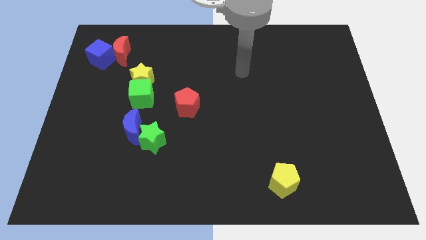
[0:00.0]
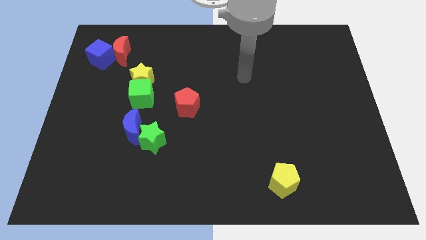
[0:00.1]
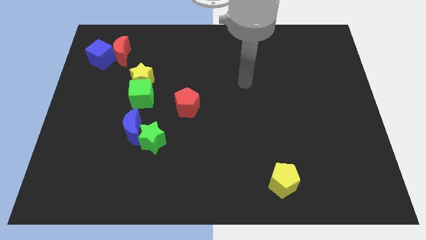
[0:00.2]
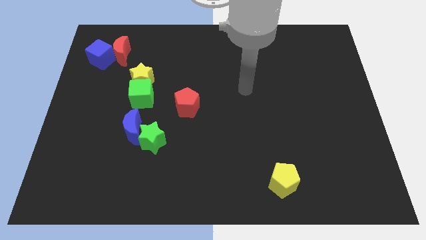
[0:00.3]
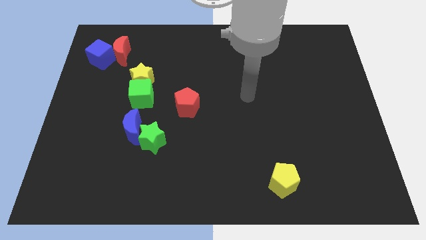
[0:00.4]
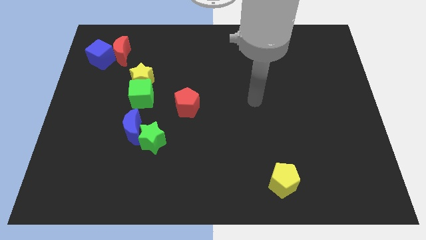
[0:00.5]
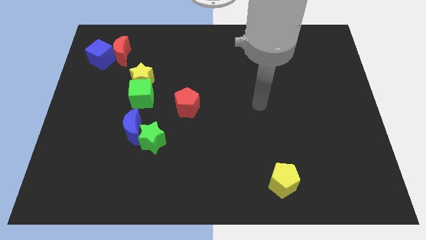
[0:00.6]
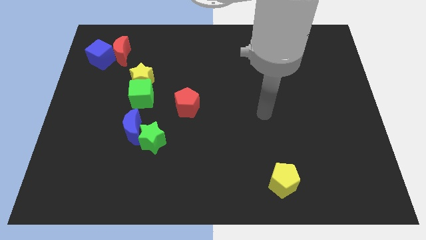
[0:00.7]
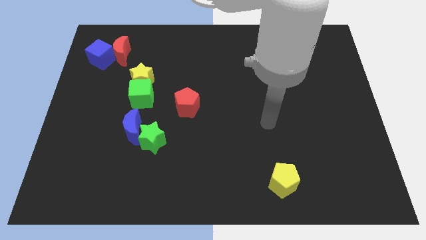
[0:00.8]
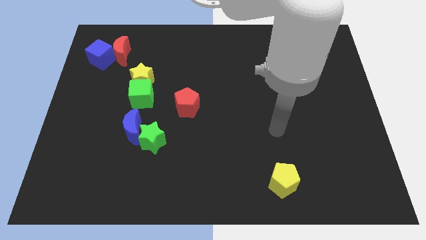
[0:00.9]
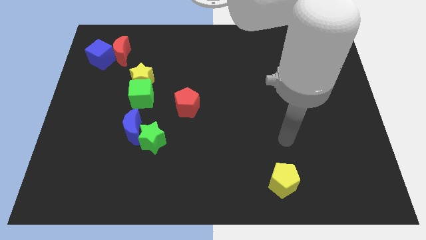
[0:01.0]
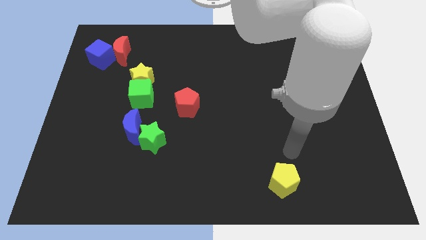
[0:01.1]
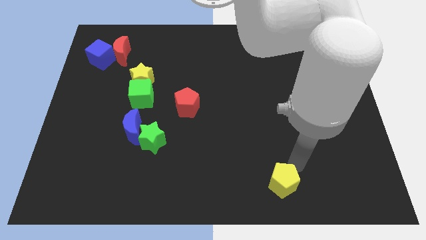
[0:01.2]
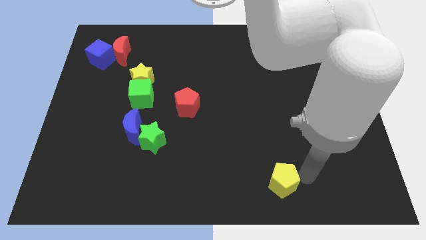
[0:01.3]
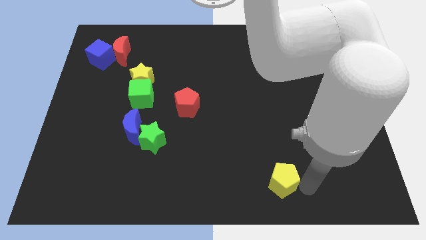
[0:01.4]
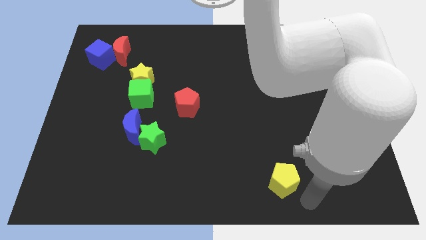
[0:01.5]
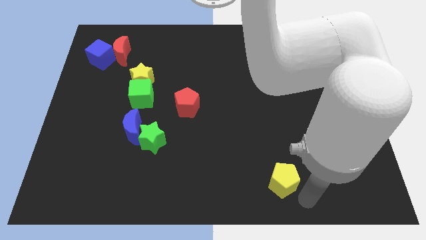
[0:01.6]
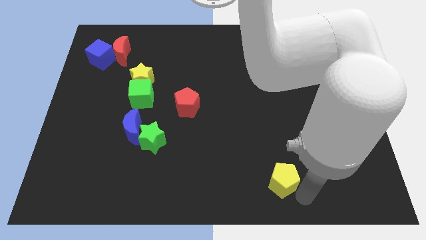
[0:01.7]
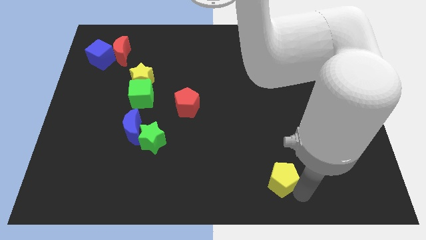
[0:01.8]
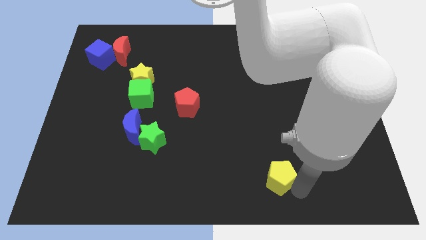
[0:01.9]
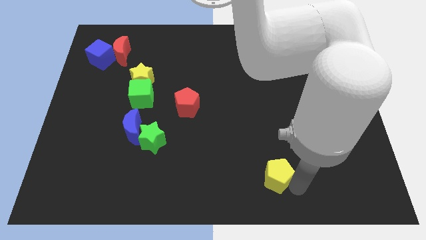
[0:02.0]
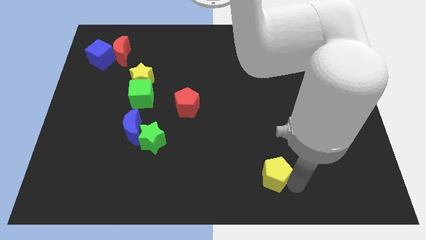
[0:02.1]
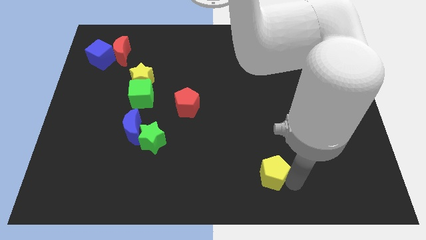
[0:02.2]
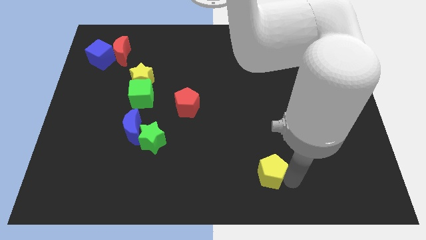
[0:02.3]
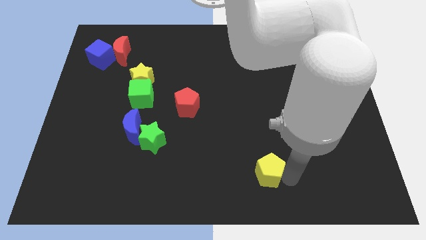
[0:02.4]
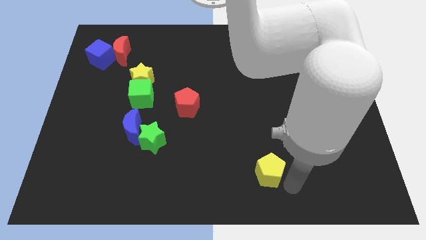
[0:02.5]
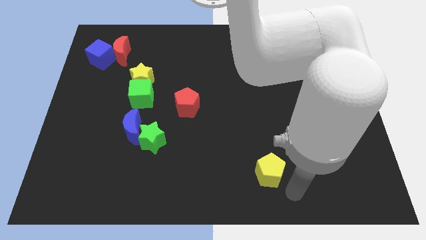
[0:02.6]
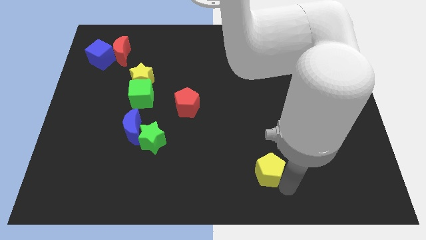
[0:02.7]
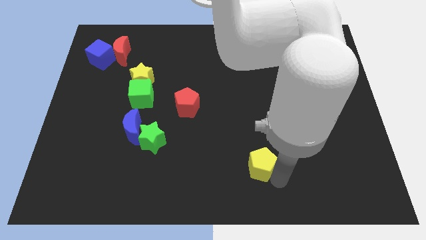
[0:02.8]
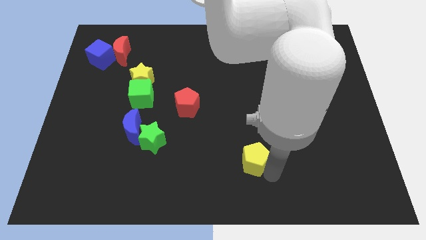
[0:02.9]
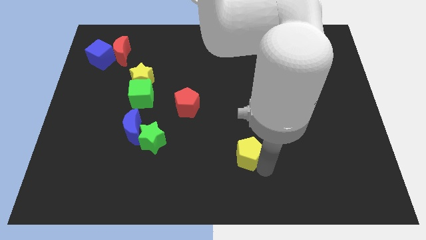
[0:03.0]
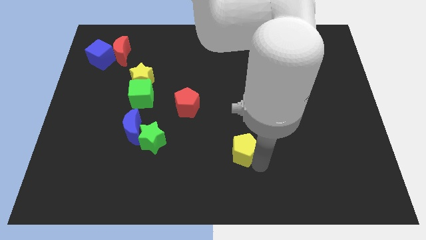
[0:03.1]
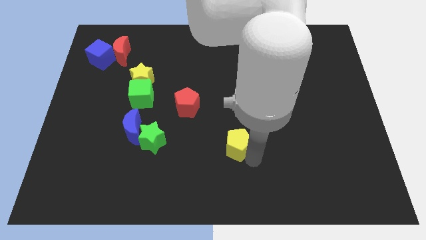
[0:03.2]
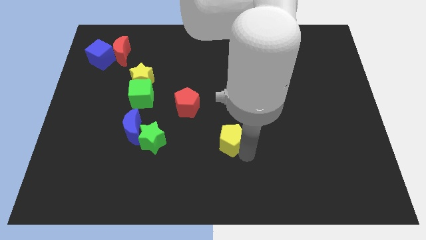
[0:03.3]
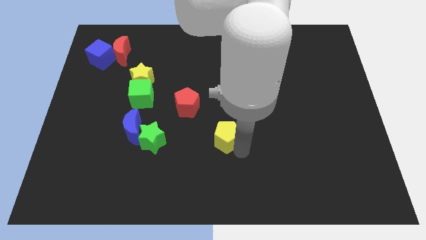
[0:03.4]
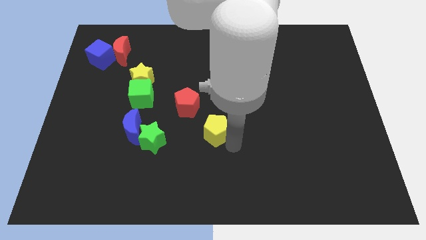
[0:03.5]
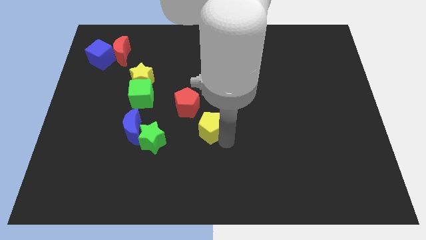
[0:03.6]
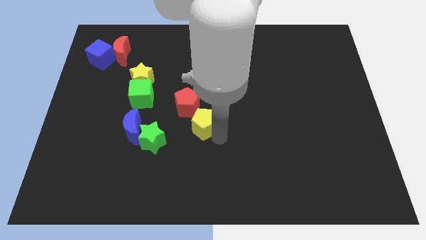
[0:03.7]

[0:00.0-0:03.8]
push the yellow pentagon upwards and to the left

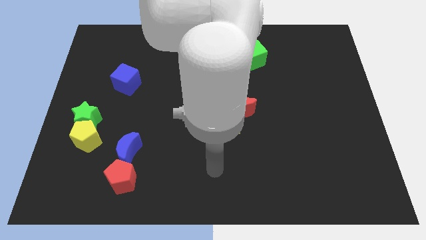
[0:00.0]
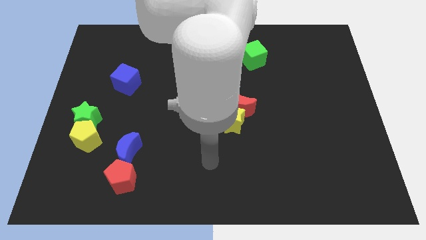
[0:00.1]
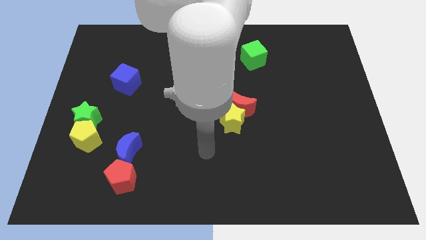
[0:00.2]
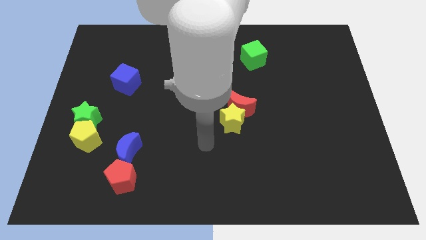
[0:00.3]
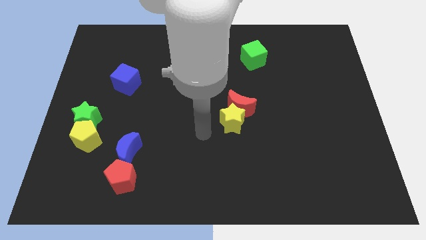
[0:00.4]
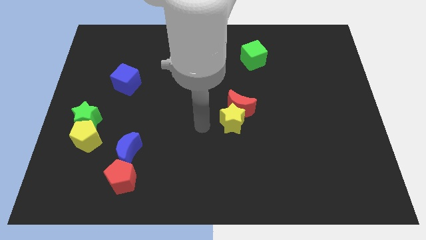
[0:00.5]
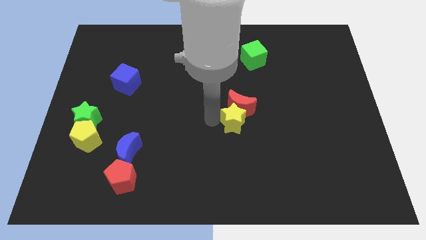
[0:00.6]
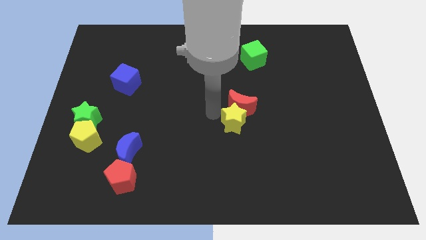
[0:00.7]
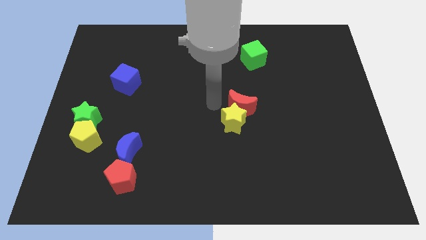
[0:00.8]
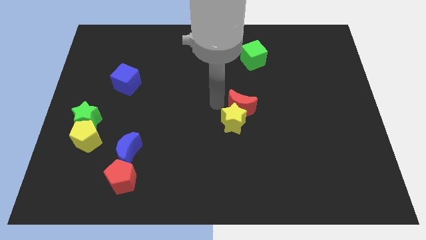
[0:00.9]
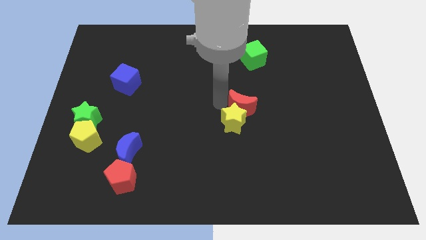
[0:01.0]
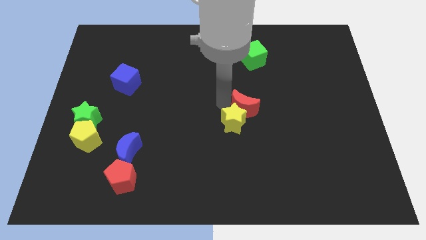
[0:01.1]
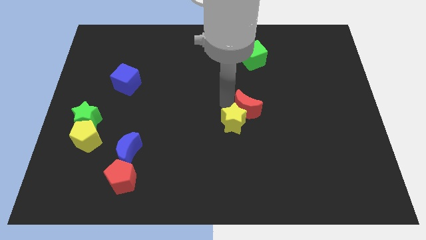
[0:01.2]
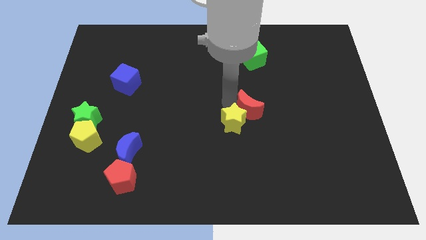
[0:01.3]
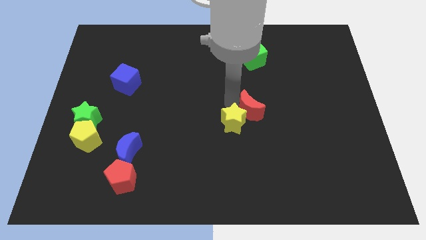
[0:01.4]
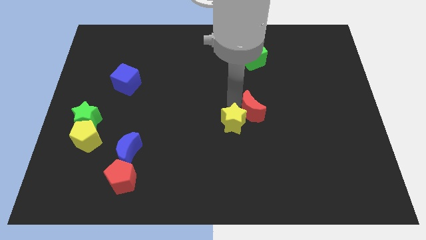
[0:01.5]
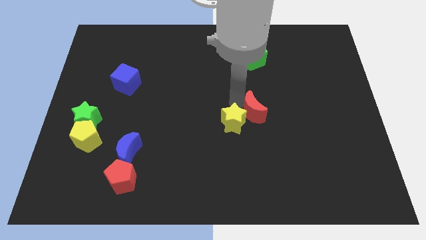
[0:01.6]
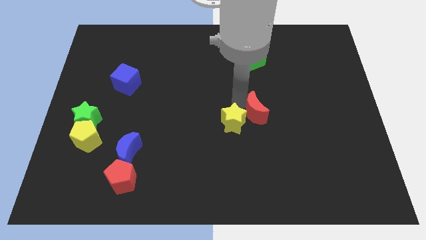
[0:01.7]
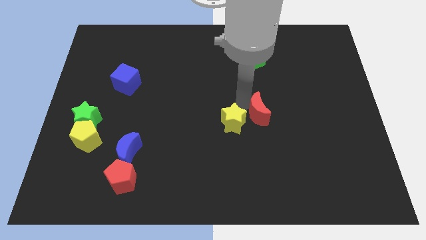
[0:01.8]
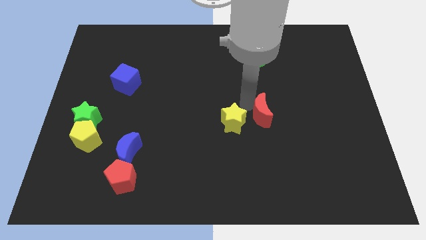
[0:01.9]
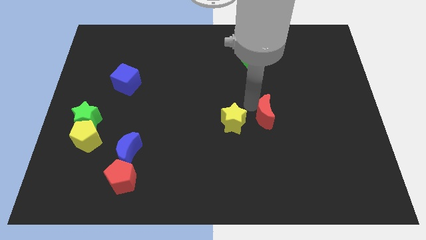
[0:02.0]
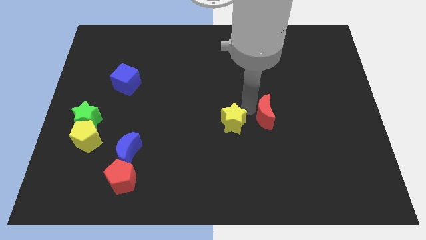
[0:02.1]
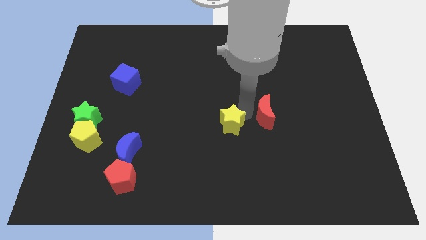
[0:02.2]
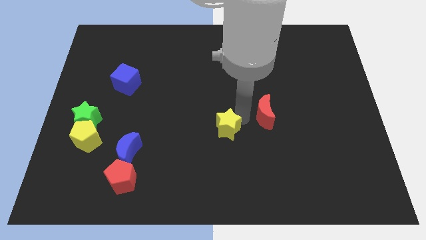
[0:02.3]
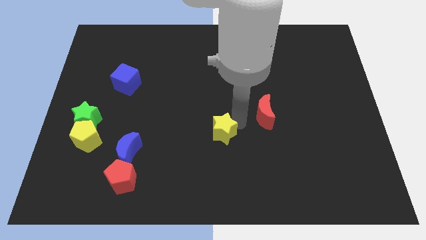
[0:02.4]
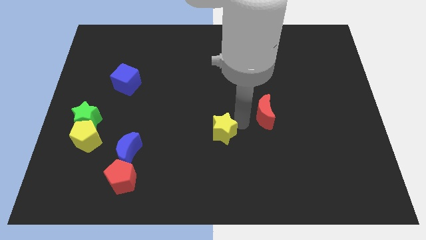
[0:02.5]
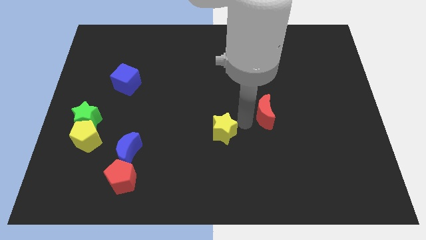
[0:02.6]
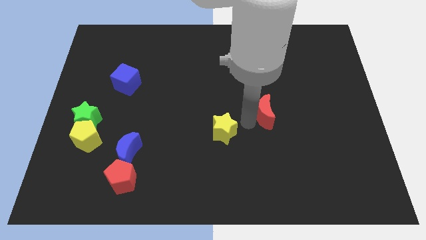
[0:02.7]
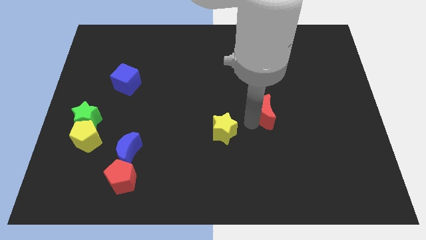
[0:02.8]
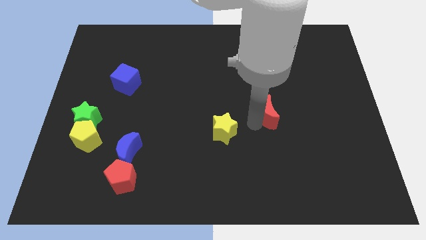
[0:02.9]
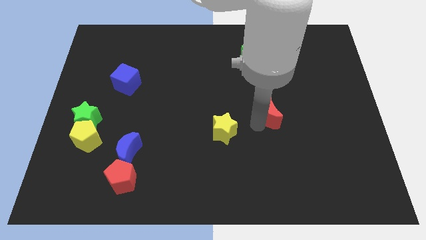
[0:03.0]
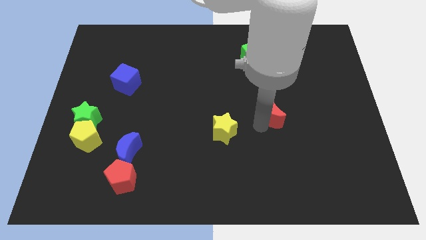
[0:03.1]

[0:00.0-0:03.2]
push the red moon to the right a little bit

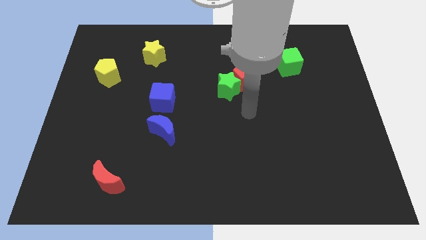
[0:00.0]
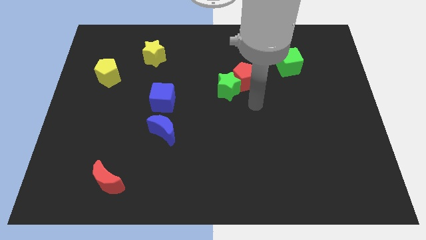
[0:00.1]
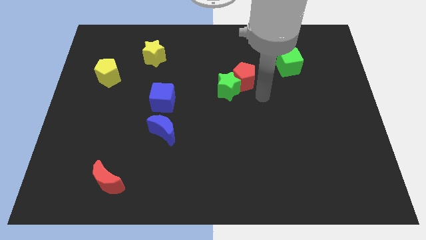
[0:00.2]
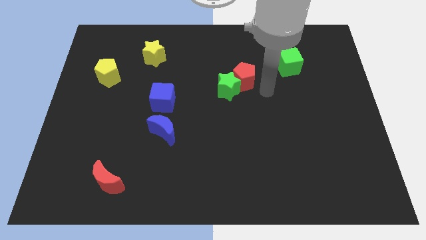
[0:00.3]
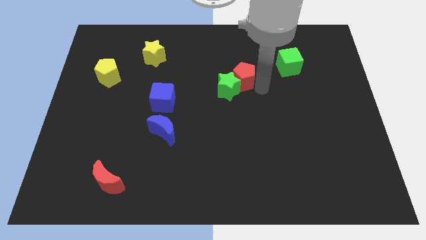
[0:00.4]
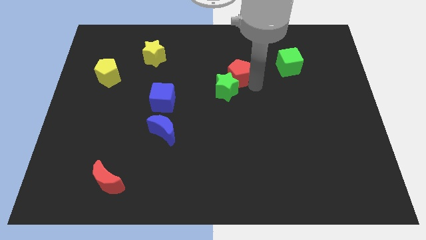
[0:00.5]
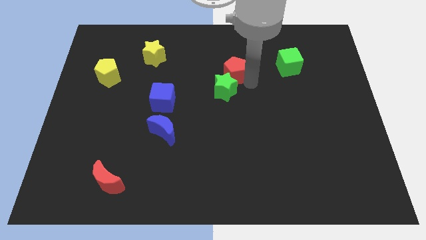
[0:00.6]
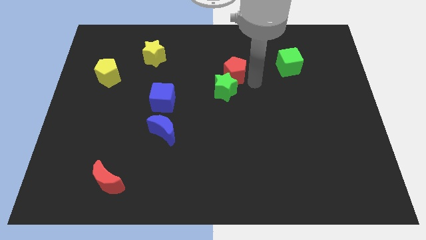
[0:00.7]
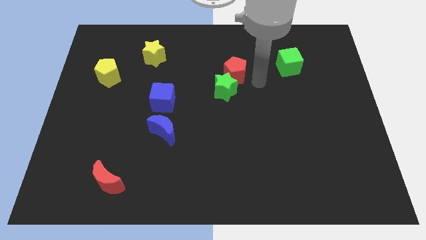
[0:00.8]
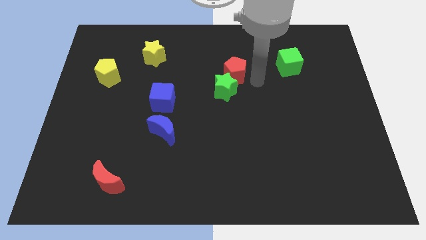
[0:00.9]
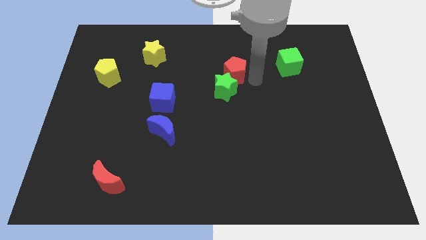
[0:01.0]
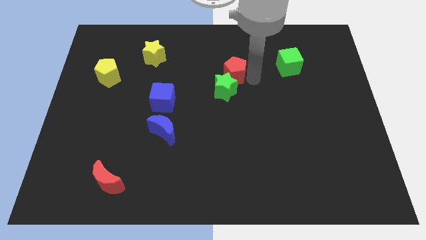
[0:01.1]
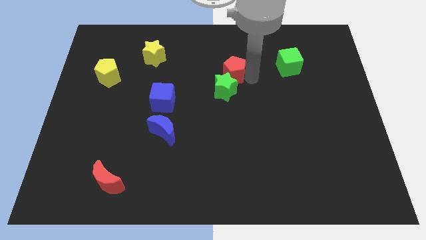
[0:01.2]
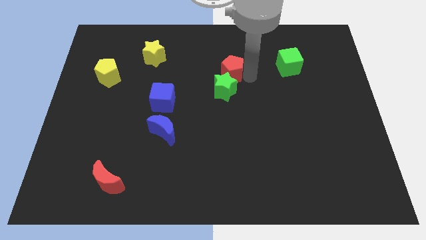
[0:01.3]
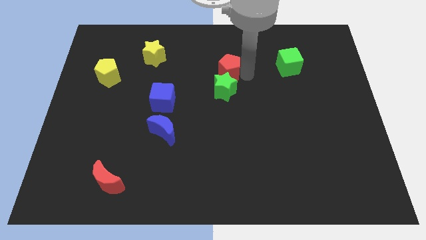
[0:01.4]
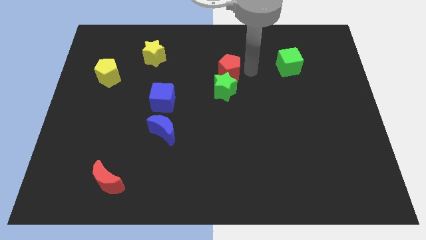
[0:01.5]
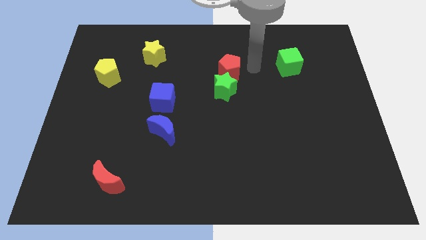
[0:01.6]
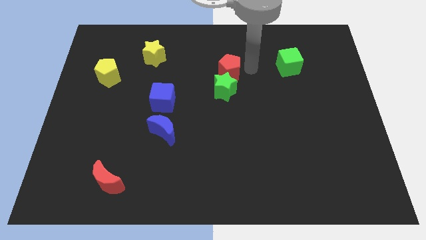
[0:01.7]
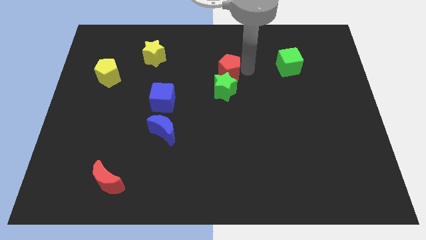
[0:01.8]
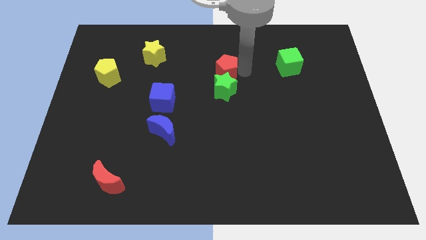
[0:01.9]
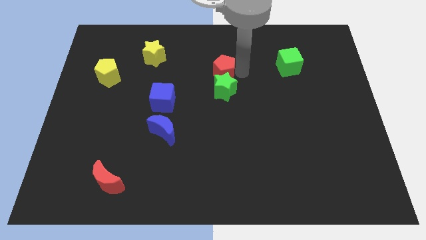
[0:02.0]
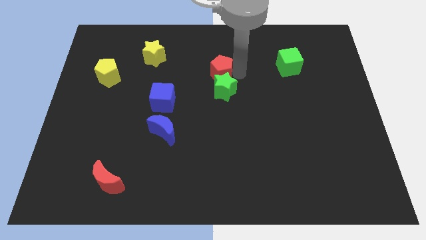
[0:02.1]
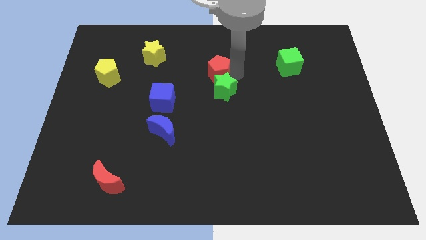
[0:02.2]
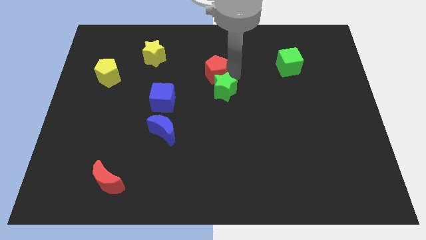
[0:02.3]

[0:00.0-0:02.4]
push the red pentagon left a little
